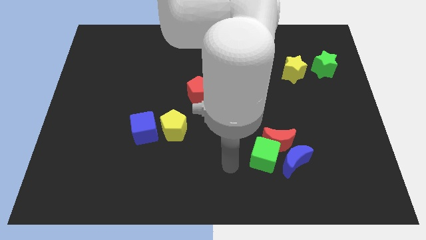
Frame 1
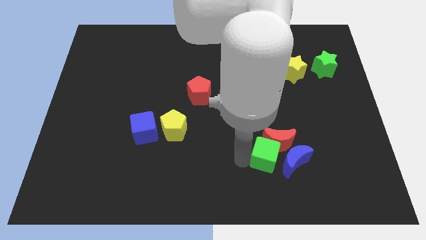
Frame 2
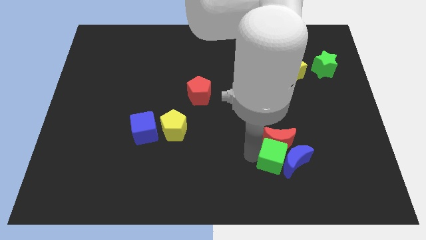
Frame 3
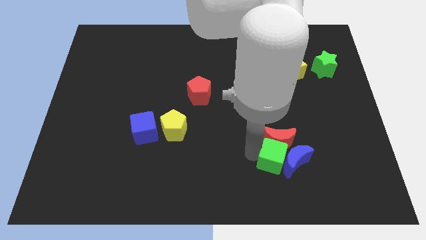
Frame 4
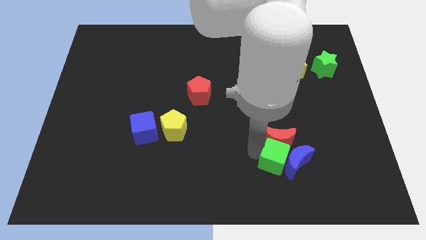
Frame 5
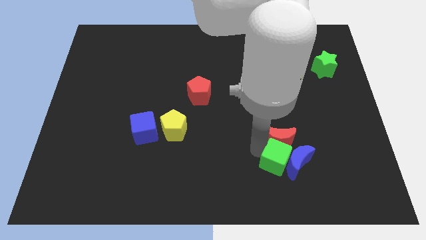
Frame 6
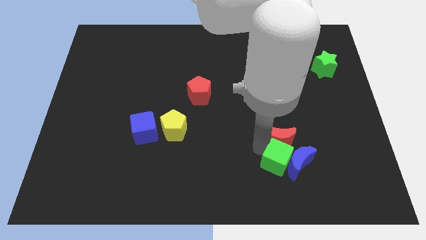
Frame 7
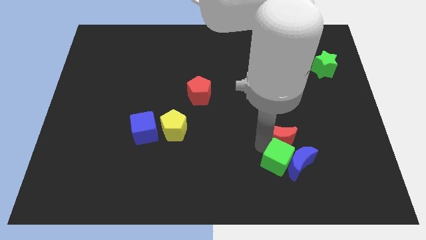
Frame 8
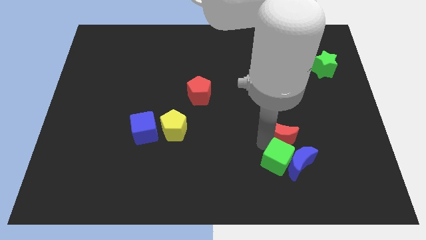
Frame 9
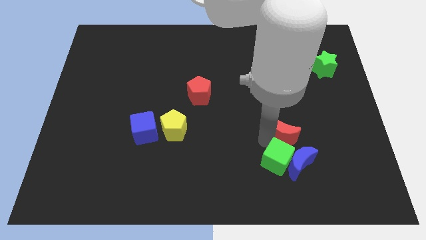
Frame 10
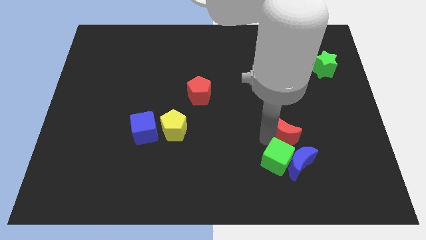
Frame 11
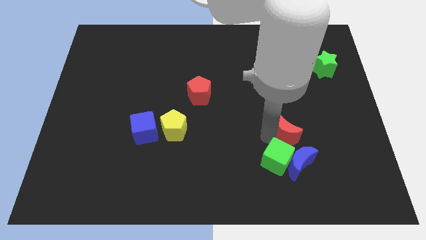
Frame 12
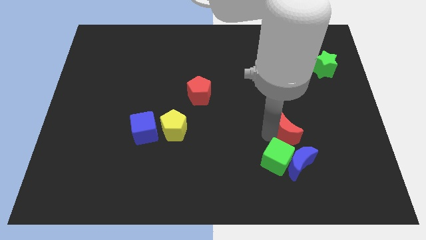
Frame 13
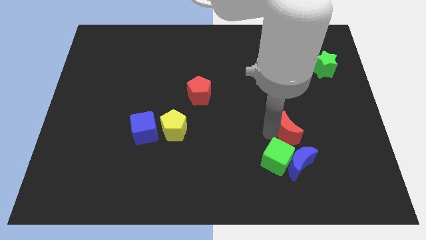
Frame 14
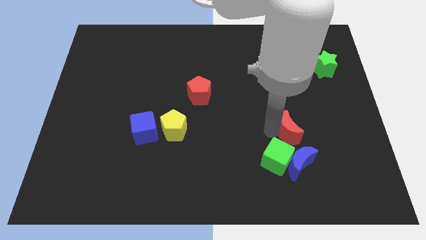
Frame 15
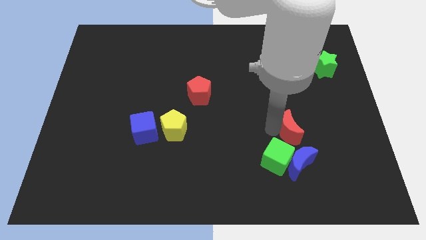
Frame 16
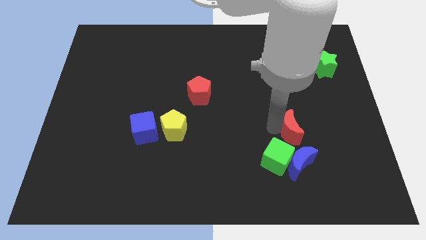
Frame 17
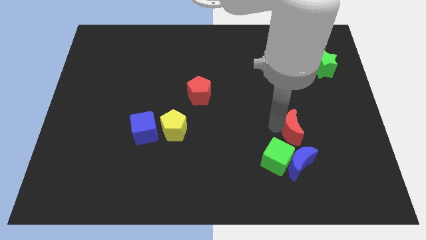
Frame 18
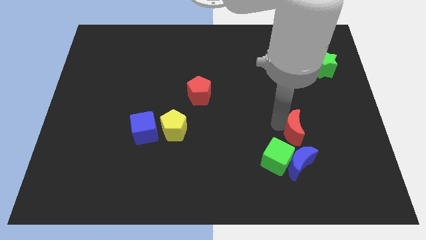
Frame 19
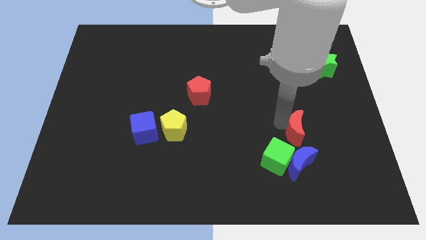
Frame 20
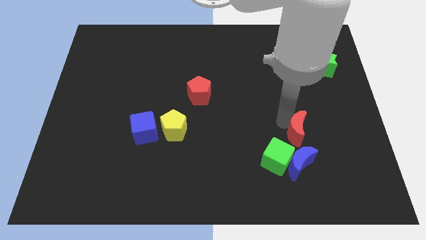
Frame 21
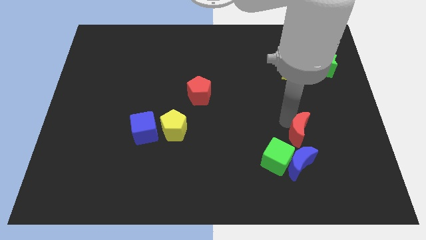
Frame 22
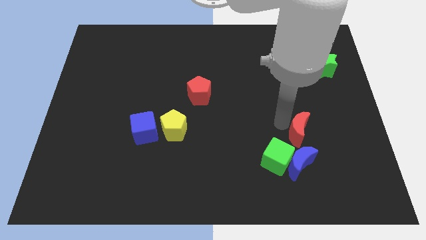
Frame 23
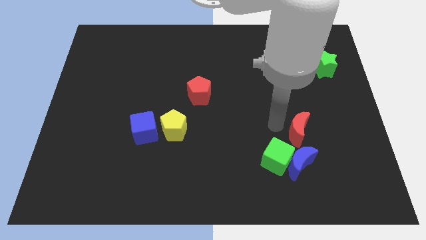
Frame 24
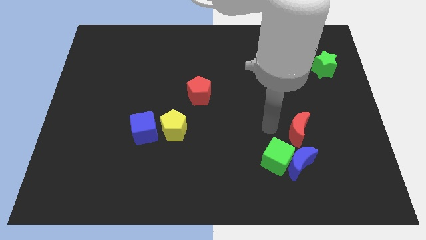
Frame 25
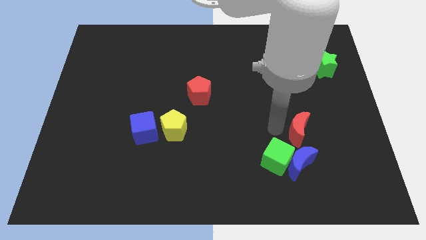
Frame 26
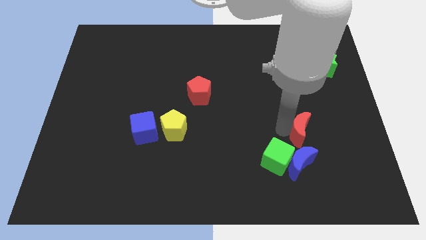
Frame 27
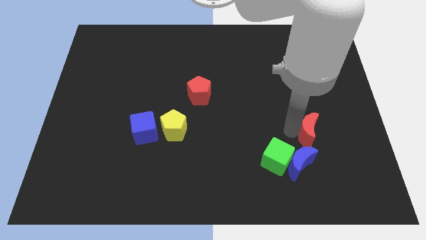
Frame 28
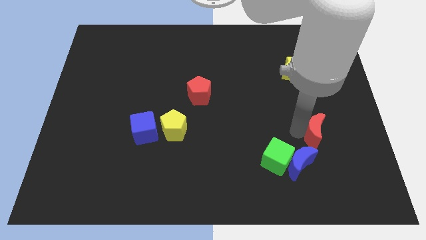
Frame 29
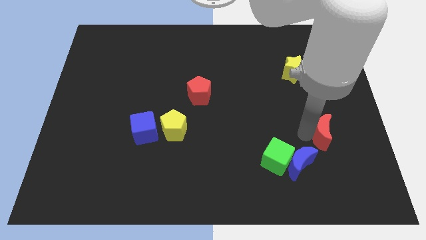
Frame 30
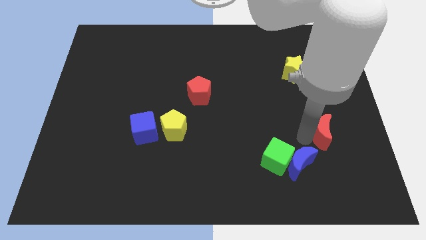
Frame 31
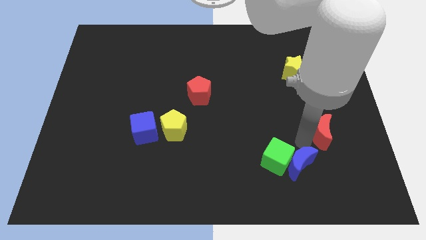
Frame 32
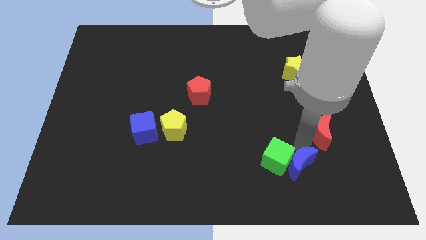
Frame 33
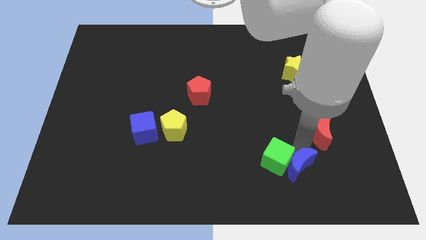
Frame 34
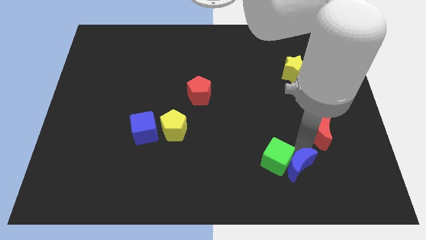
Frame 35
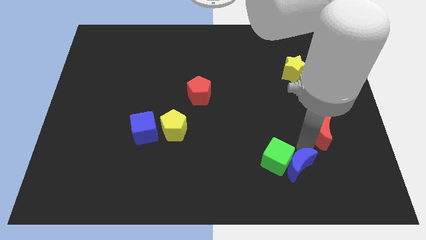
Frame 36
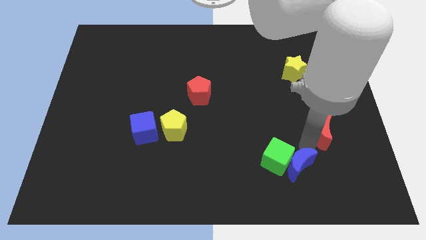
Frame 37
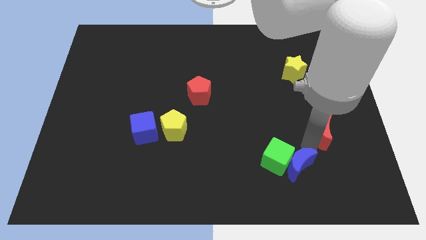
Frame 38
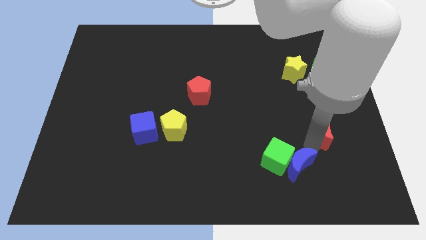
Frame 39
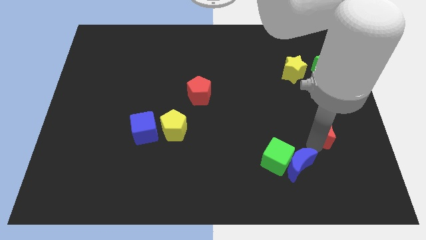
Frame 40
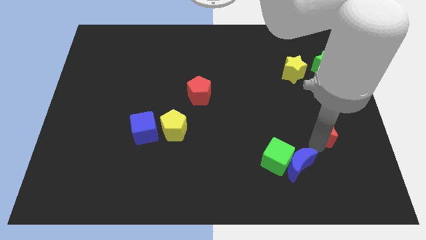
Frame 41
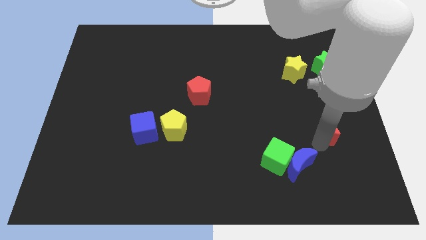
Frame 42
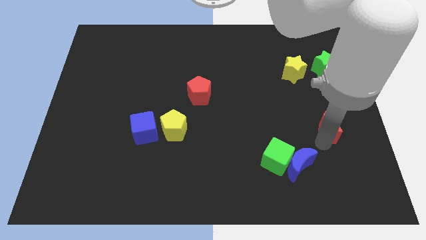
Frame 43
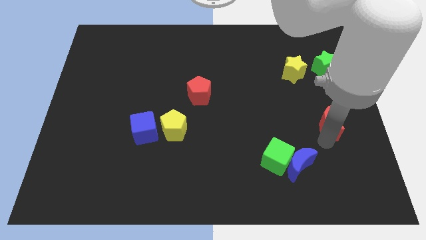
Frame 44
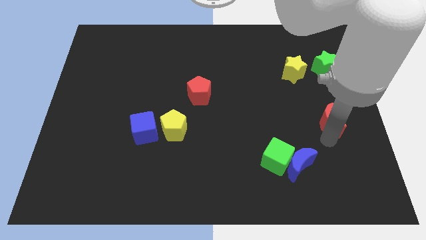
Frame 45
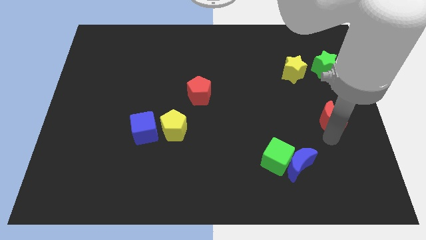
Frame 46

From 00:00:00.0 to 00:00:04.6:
slide the red moon to the center right

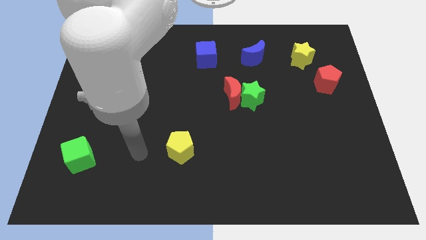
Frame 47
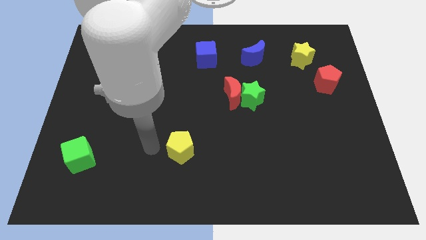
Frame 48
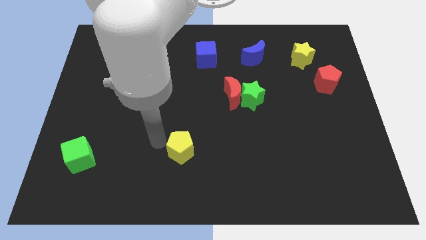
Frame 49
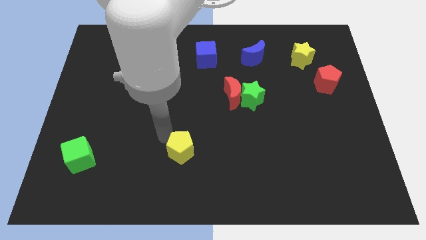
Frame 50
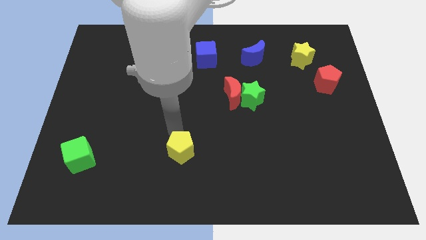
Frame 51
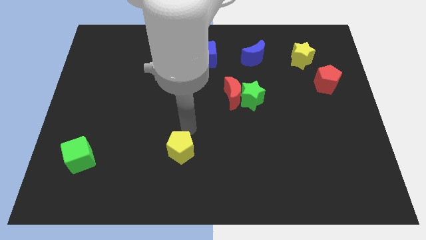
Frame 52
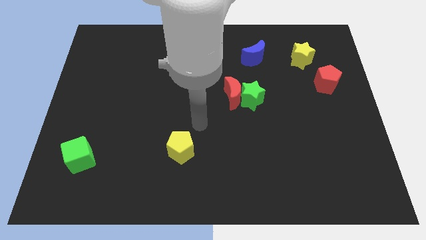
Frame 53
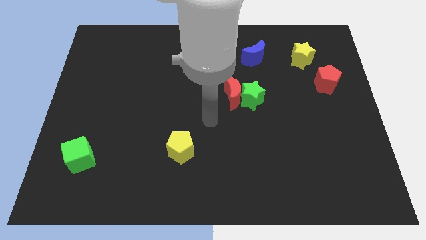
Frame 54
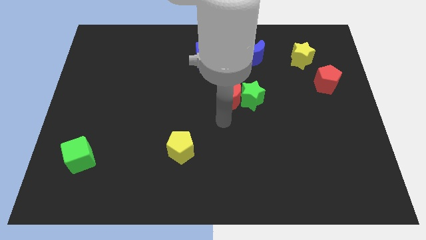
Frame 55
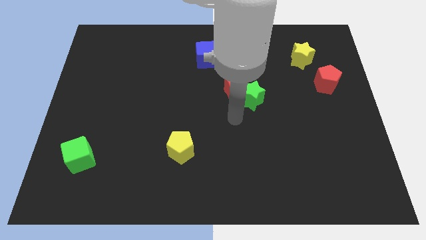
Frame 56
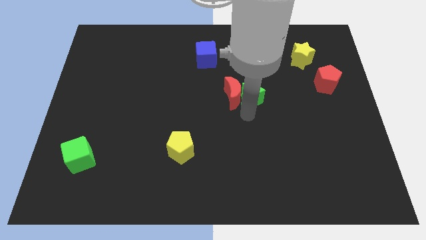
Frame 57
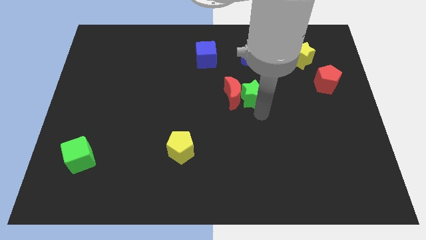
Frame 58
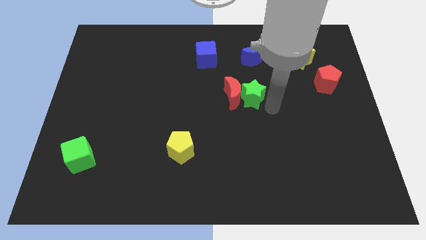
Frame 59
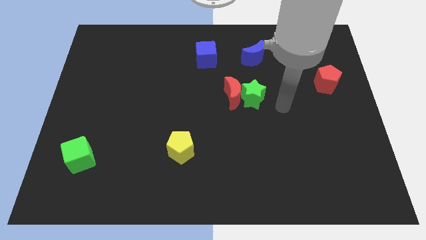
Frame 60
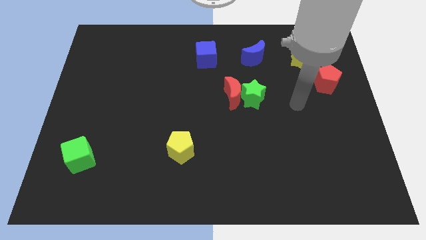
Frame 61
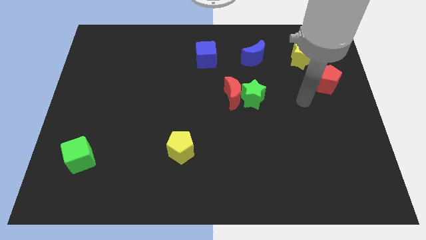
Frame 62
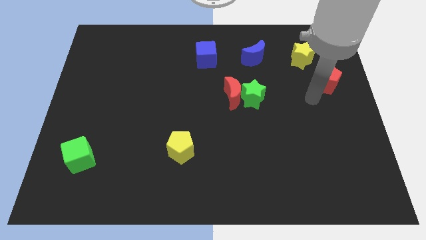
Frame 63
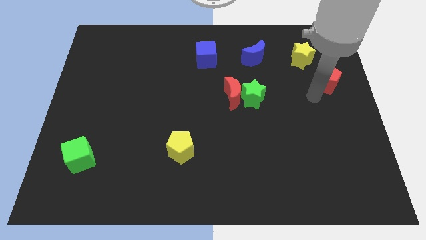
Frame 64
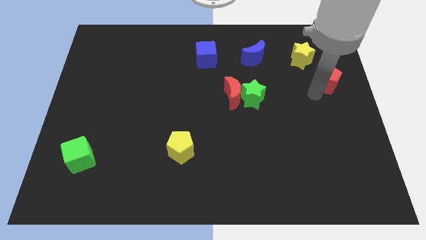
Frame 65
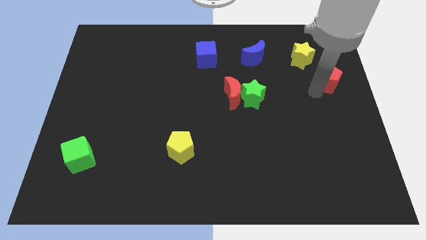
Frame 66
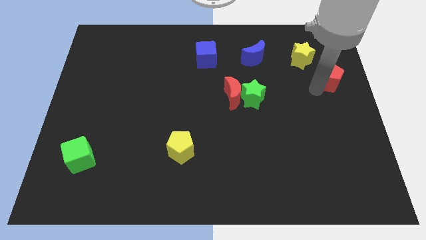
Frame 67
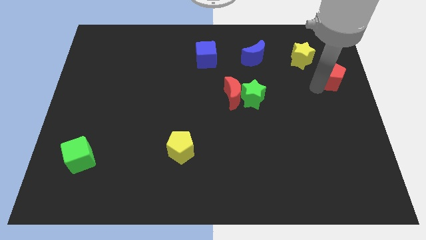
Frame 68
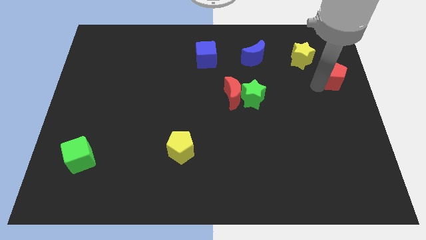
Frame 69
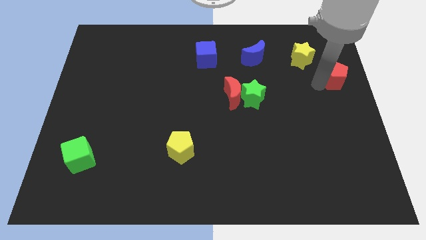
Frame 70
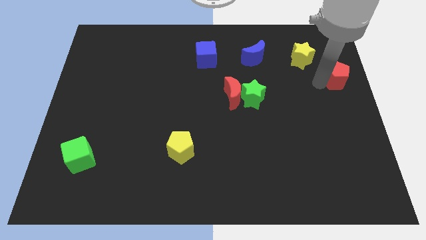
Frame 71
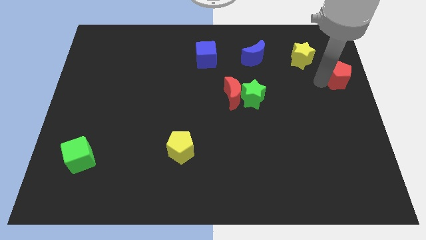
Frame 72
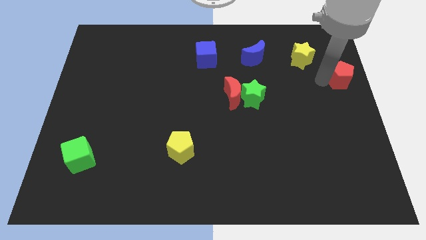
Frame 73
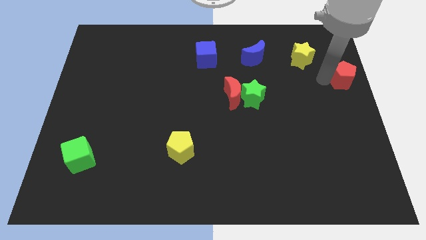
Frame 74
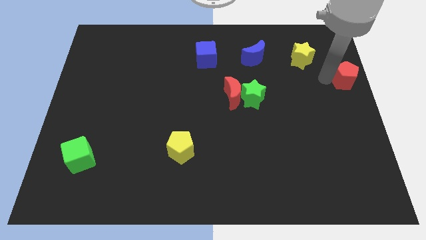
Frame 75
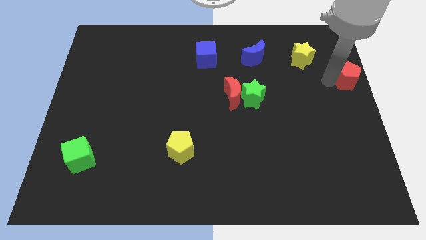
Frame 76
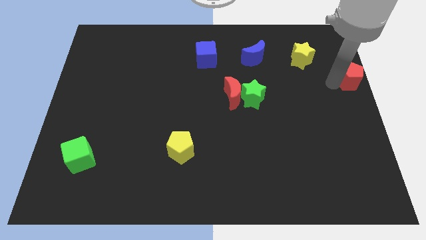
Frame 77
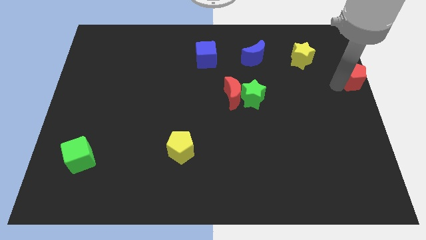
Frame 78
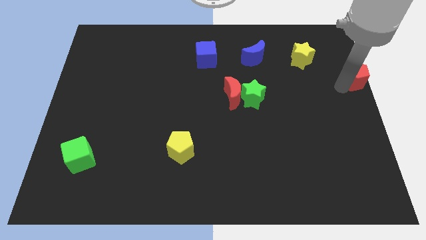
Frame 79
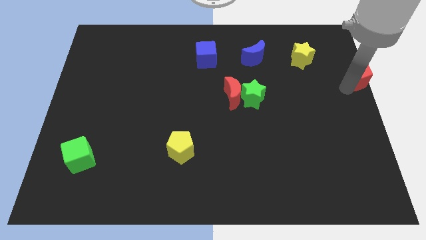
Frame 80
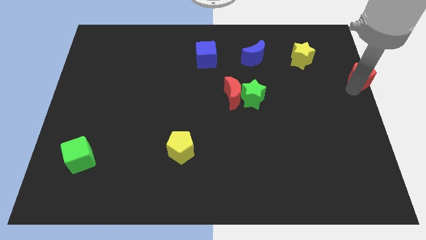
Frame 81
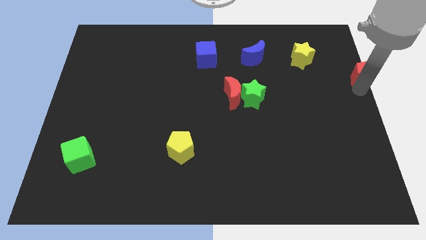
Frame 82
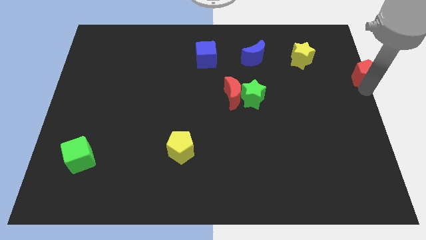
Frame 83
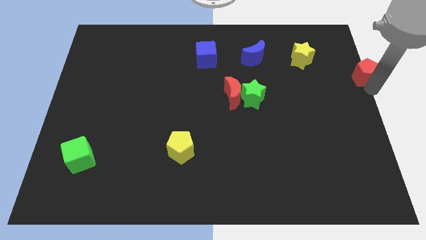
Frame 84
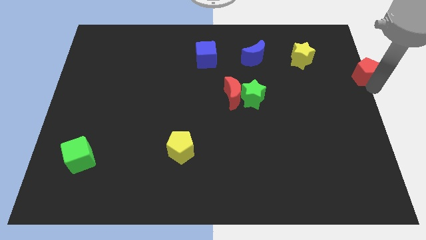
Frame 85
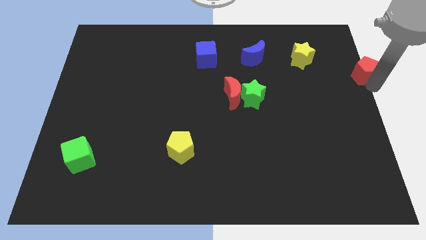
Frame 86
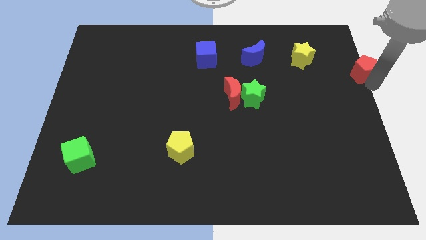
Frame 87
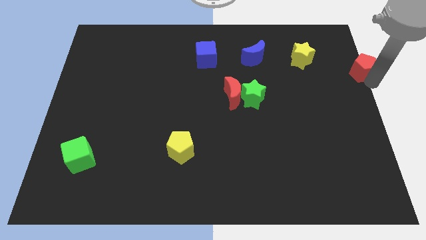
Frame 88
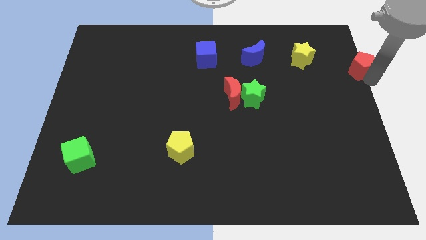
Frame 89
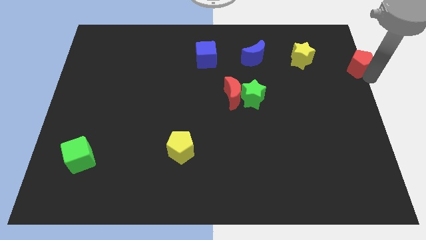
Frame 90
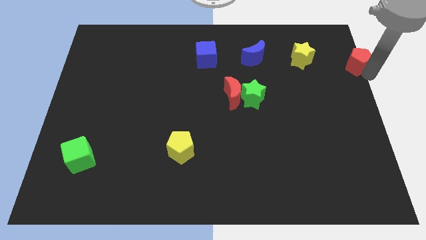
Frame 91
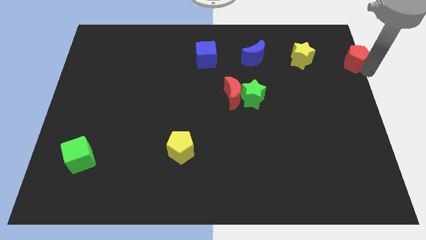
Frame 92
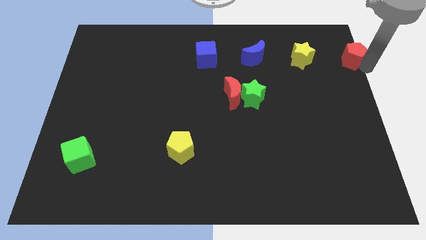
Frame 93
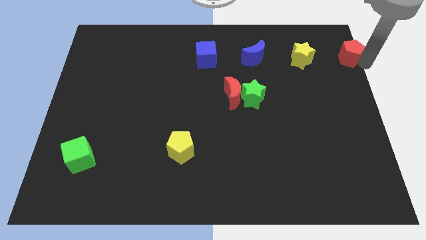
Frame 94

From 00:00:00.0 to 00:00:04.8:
push the red pentagon to the top right
